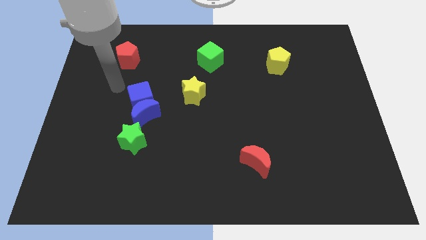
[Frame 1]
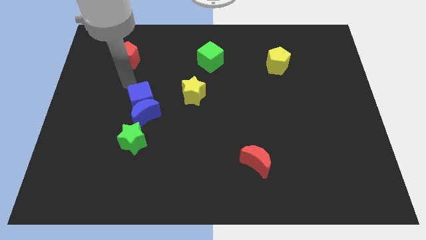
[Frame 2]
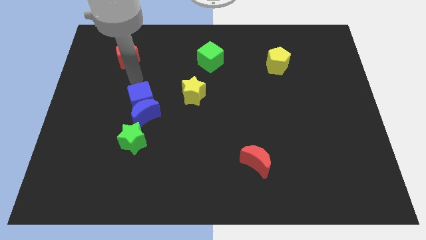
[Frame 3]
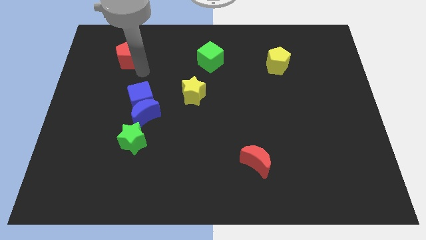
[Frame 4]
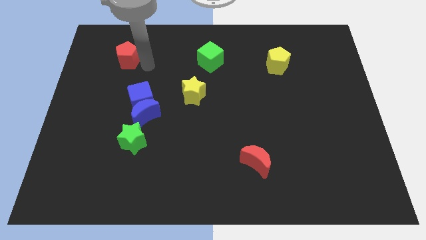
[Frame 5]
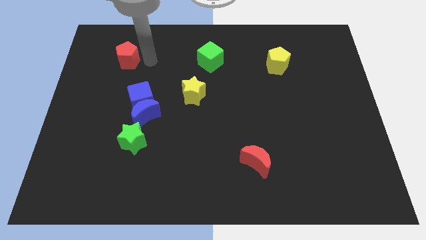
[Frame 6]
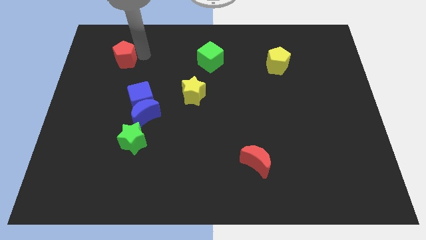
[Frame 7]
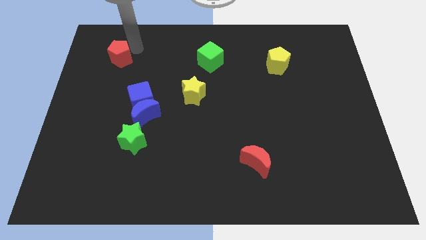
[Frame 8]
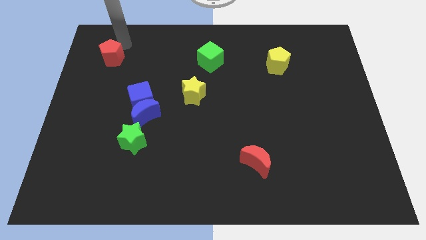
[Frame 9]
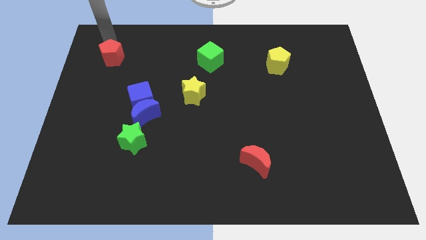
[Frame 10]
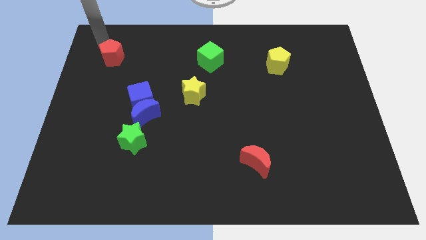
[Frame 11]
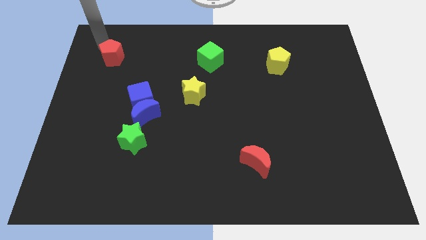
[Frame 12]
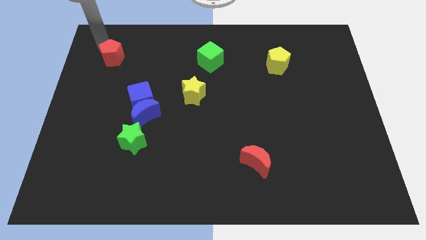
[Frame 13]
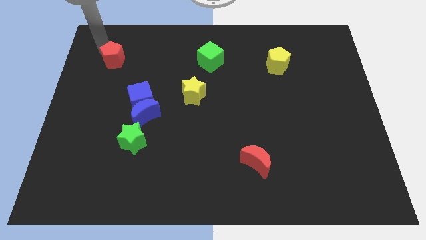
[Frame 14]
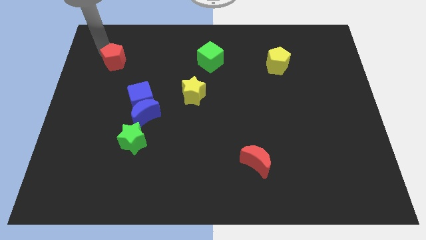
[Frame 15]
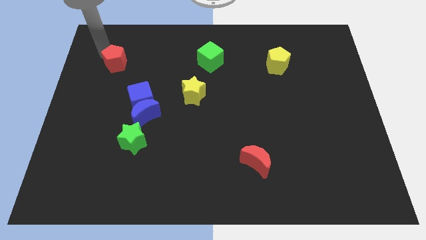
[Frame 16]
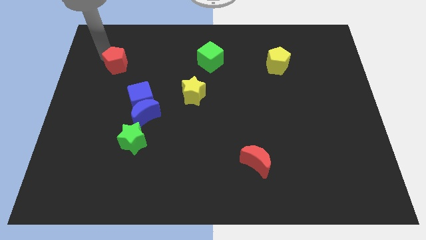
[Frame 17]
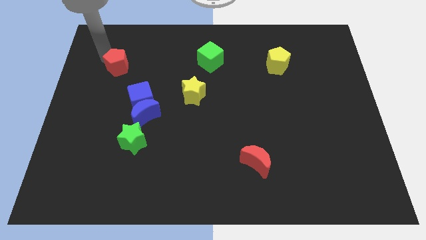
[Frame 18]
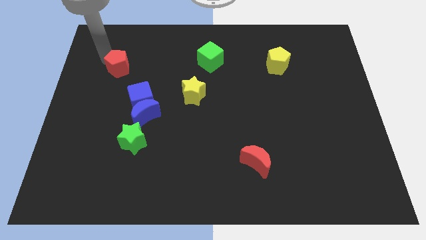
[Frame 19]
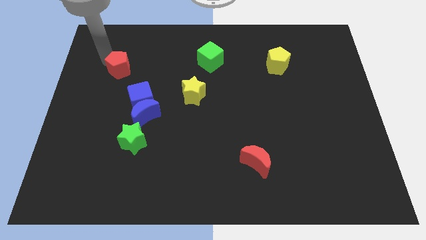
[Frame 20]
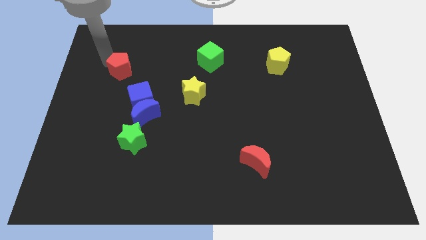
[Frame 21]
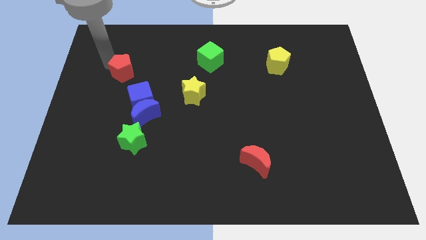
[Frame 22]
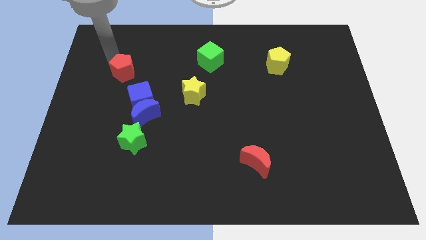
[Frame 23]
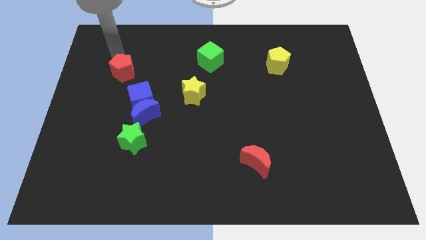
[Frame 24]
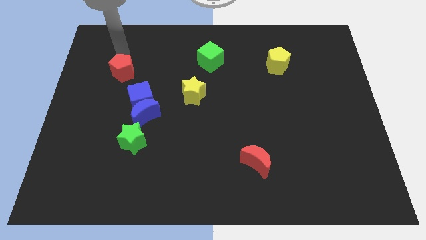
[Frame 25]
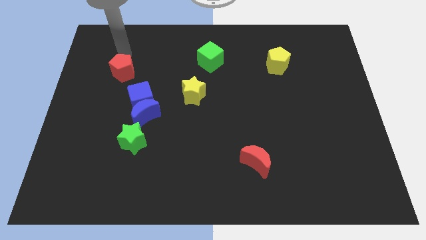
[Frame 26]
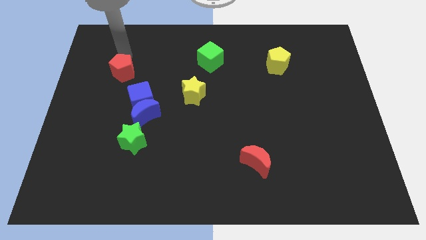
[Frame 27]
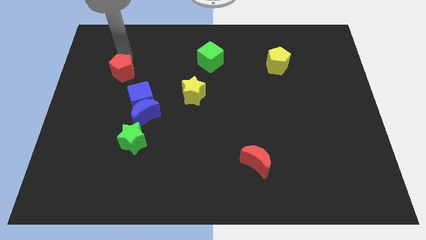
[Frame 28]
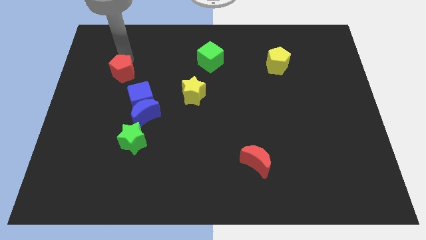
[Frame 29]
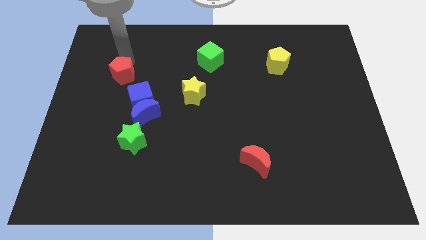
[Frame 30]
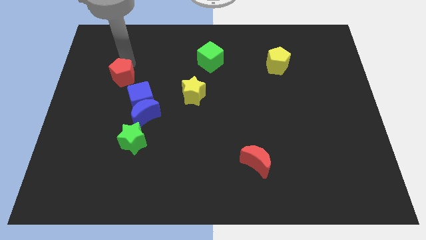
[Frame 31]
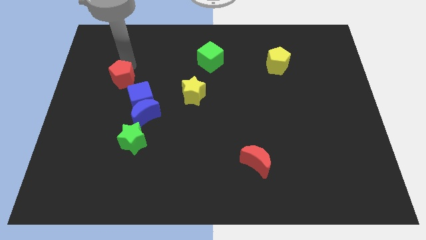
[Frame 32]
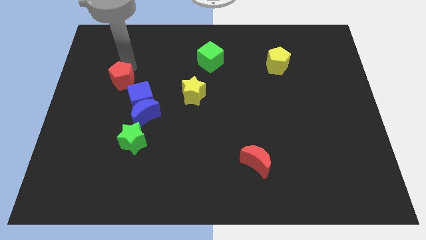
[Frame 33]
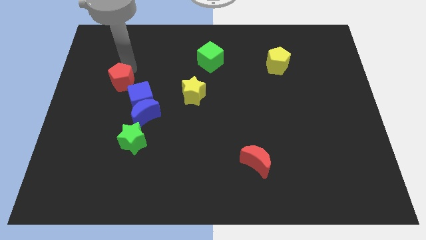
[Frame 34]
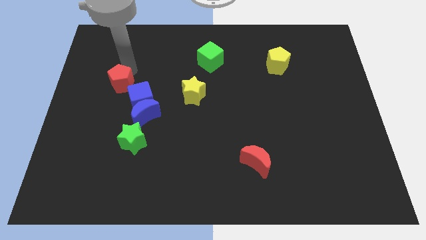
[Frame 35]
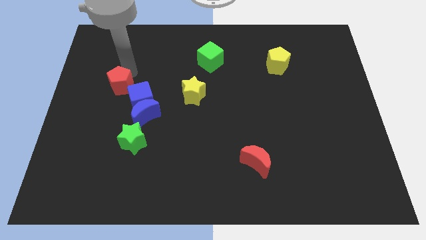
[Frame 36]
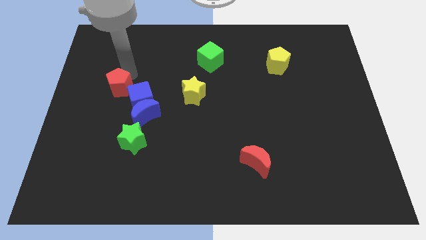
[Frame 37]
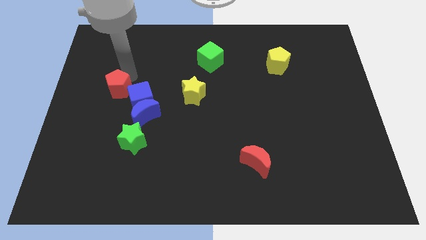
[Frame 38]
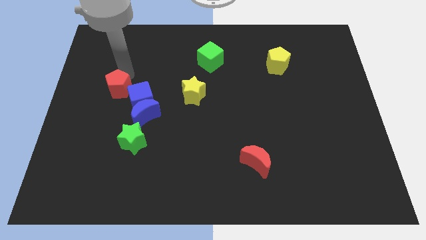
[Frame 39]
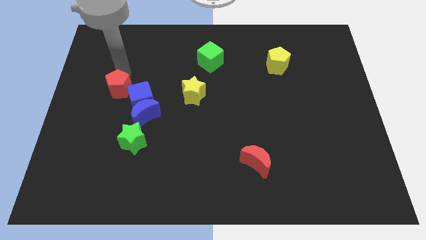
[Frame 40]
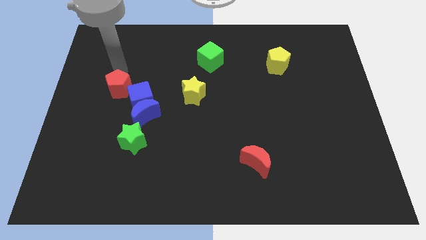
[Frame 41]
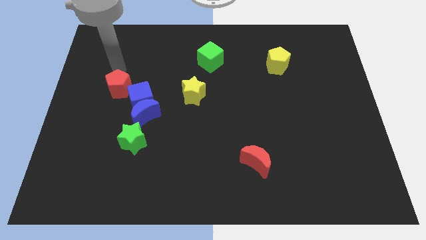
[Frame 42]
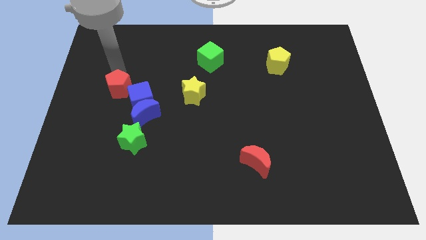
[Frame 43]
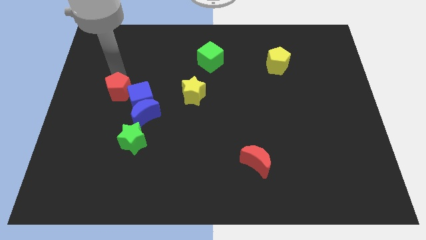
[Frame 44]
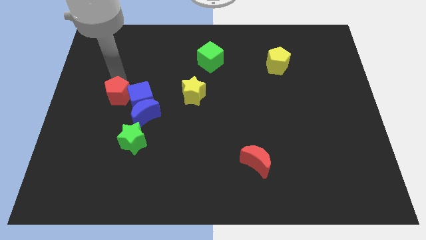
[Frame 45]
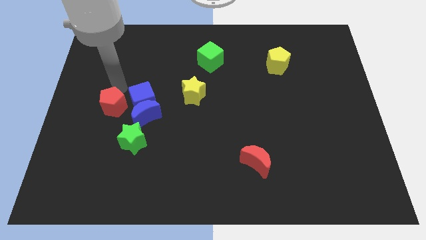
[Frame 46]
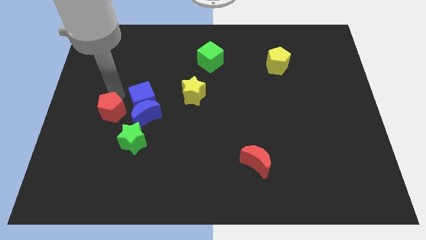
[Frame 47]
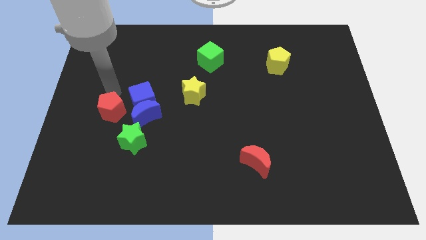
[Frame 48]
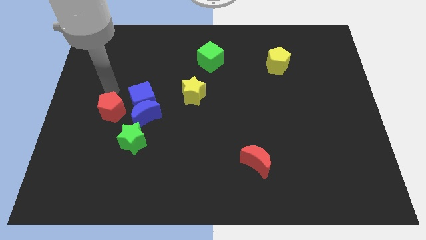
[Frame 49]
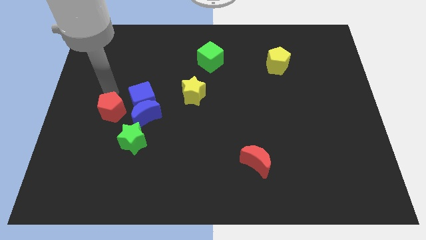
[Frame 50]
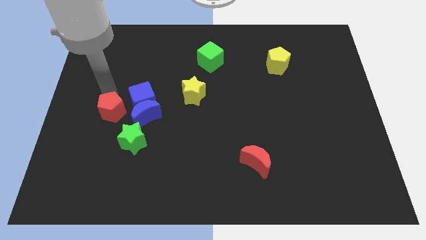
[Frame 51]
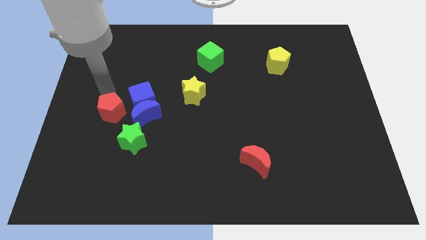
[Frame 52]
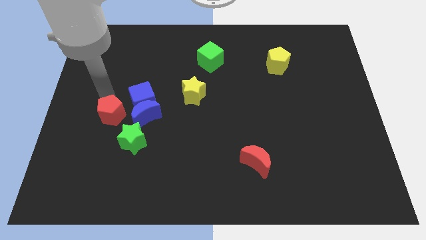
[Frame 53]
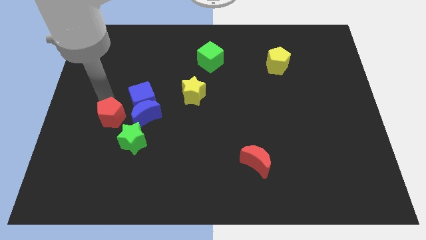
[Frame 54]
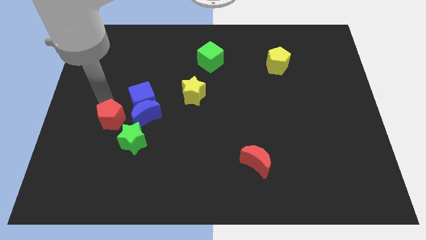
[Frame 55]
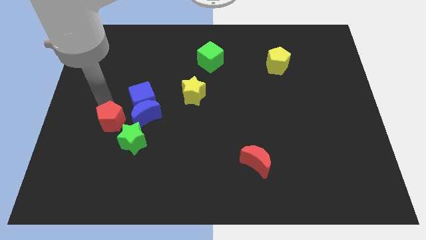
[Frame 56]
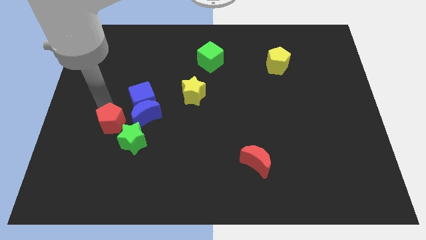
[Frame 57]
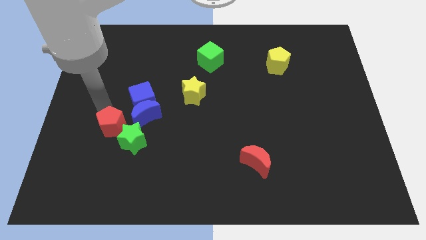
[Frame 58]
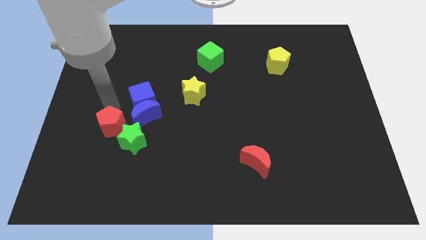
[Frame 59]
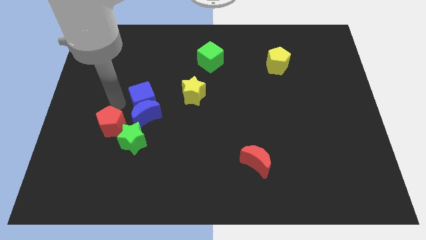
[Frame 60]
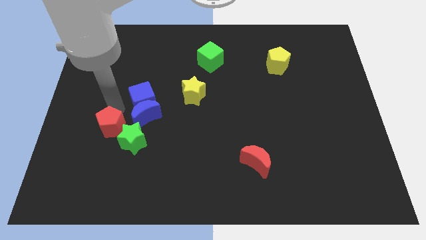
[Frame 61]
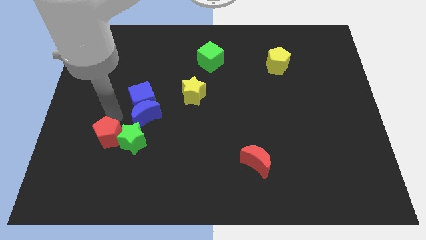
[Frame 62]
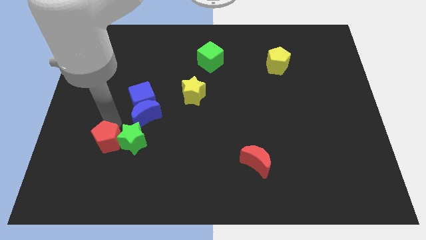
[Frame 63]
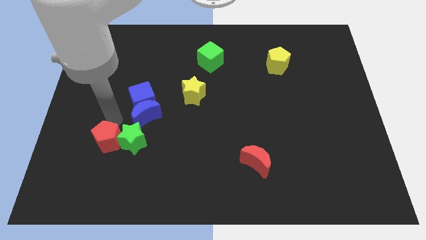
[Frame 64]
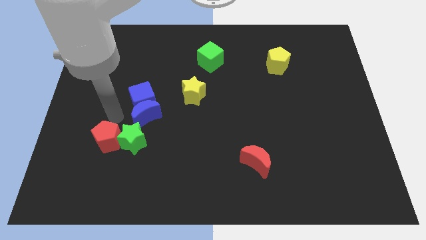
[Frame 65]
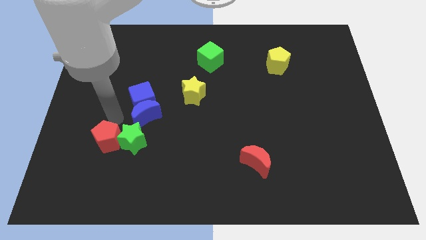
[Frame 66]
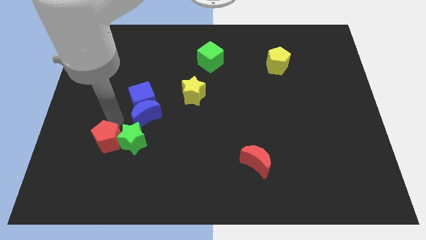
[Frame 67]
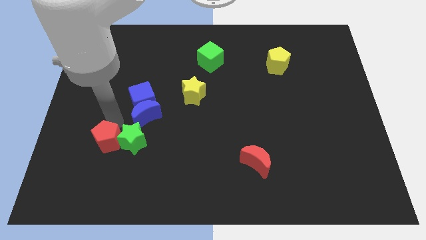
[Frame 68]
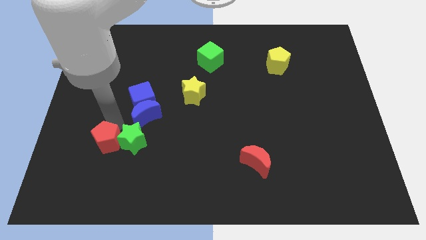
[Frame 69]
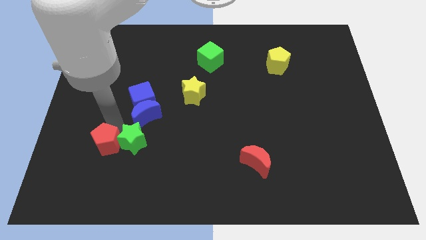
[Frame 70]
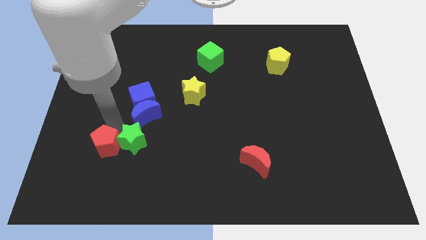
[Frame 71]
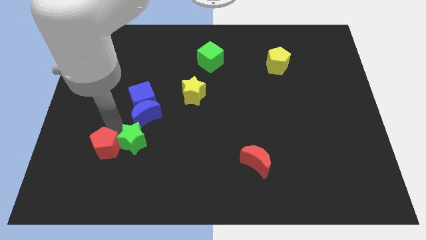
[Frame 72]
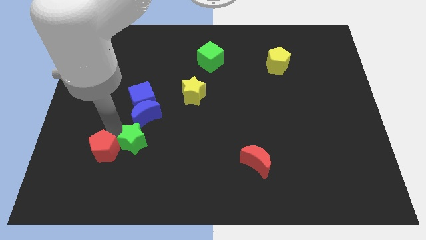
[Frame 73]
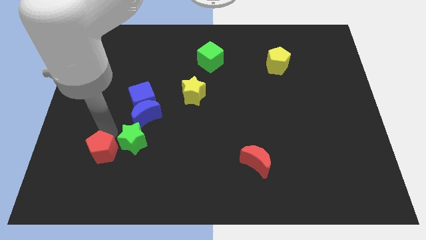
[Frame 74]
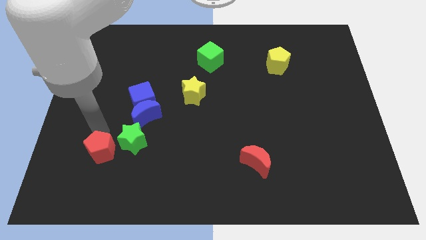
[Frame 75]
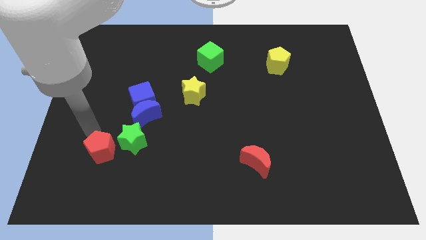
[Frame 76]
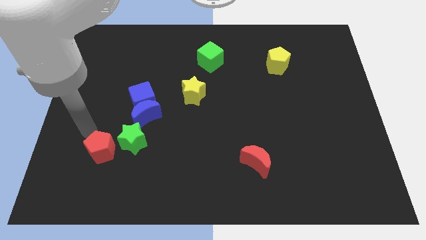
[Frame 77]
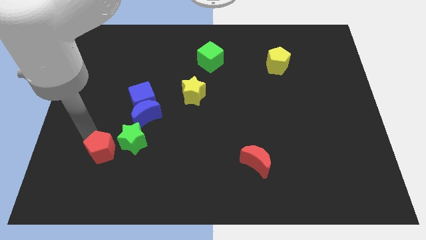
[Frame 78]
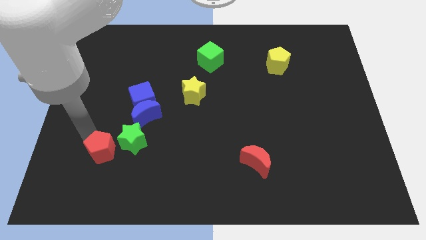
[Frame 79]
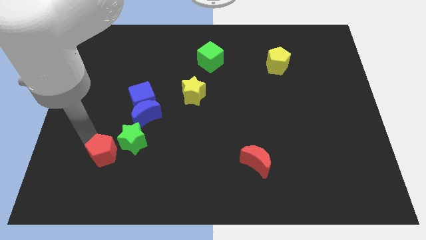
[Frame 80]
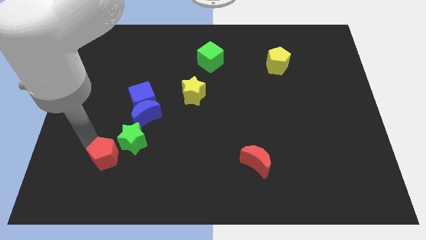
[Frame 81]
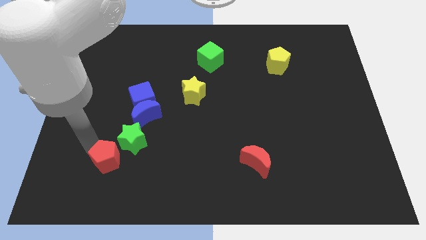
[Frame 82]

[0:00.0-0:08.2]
put the red pentagon below the green star
